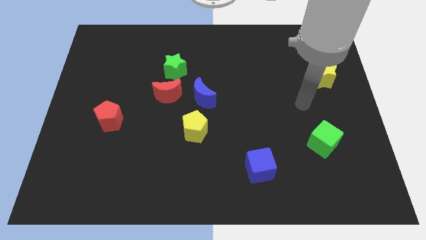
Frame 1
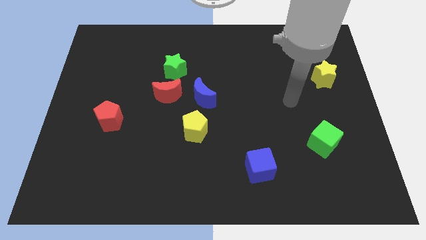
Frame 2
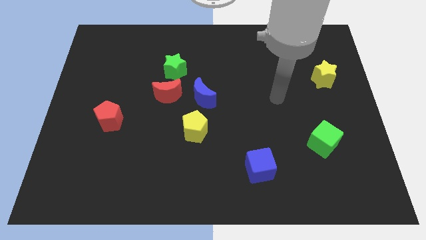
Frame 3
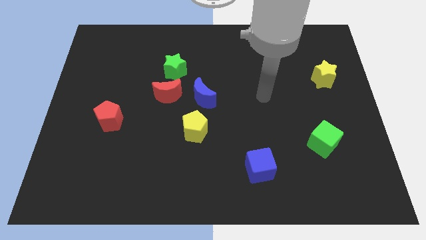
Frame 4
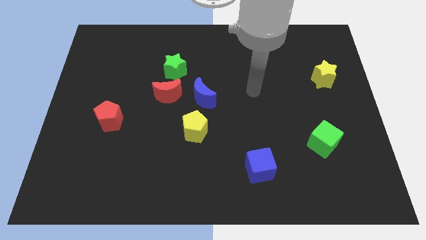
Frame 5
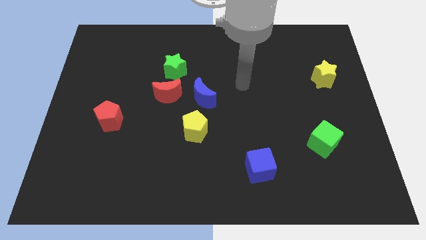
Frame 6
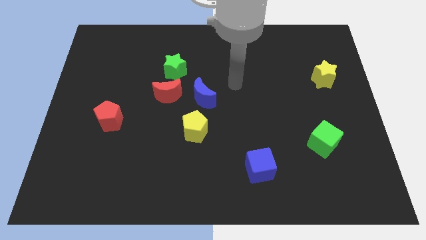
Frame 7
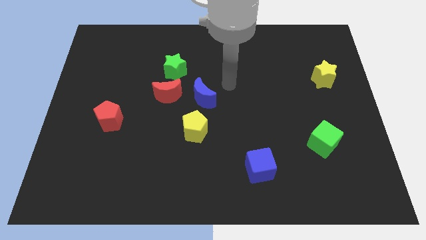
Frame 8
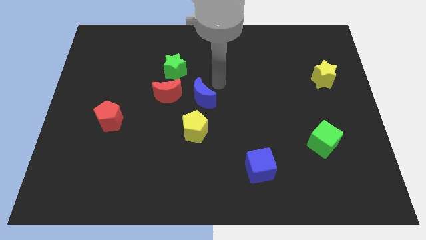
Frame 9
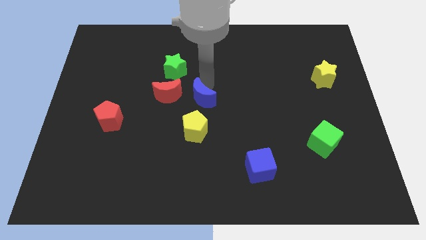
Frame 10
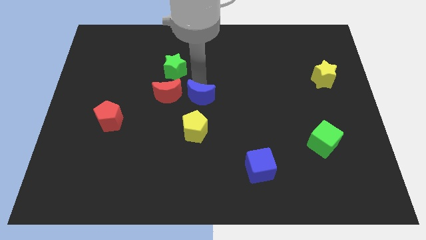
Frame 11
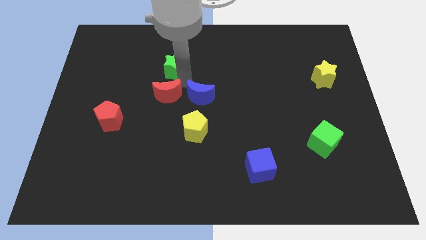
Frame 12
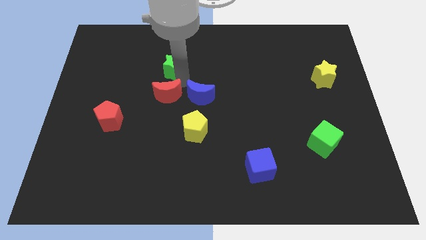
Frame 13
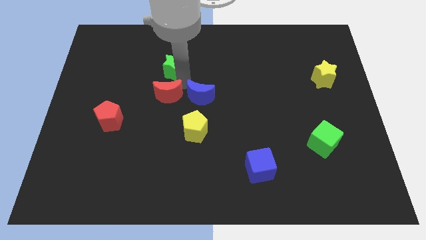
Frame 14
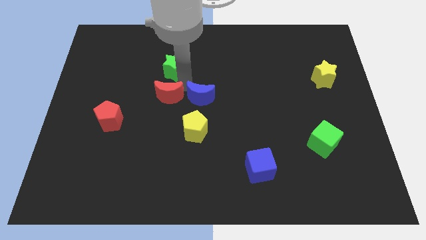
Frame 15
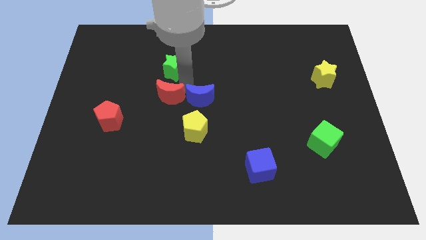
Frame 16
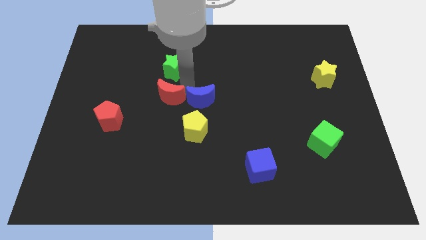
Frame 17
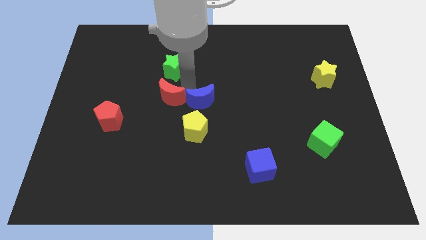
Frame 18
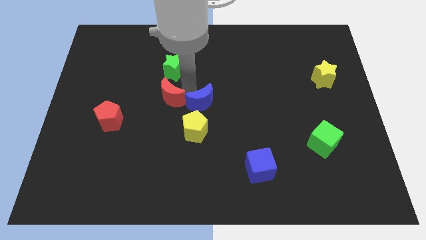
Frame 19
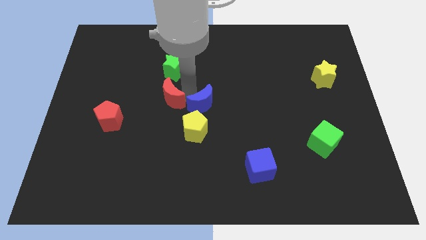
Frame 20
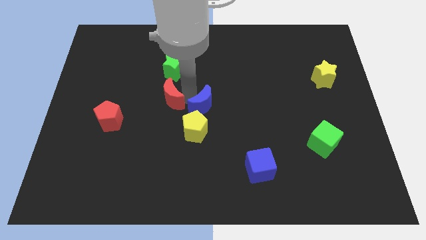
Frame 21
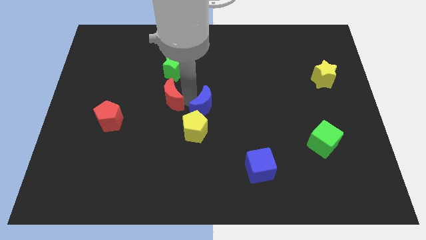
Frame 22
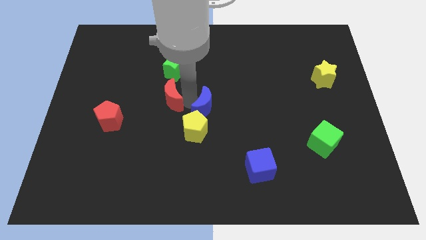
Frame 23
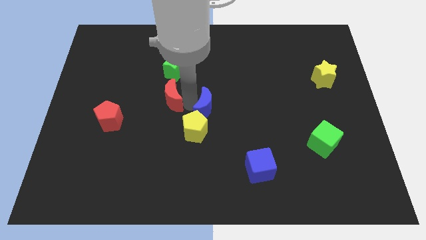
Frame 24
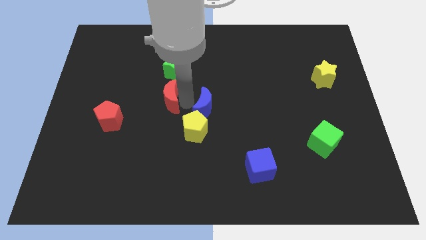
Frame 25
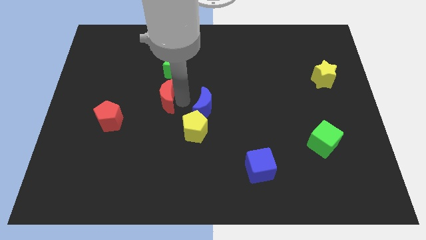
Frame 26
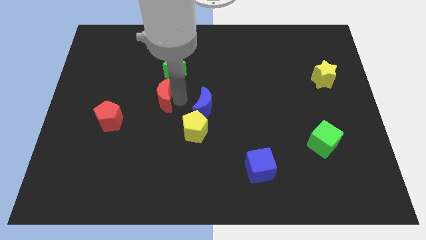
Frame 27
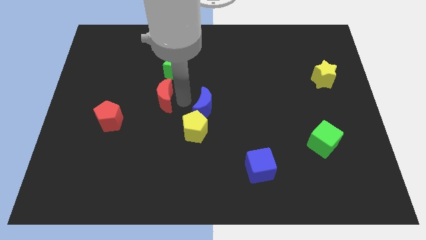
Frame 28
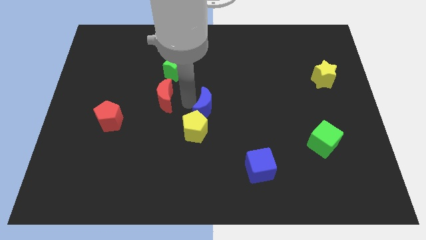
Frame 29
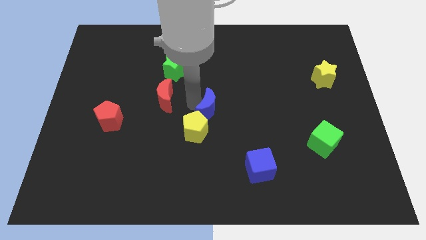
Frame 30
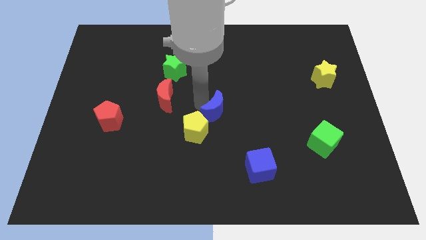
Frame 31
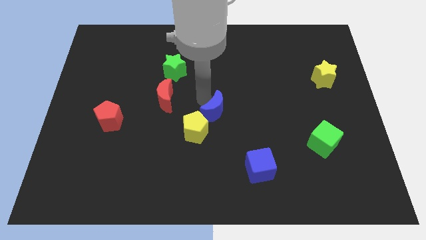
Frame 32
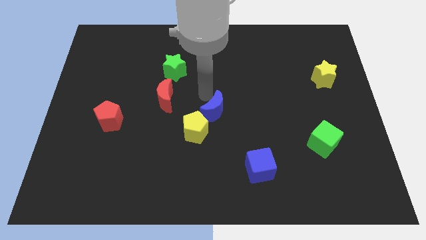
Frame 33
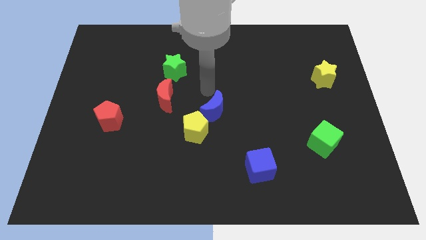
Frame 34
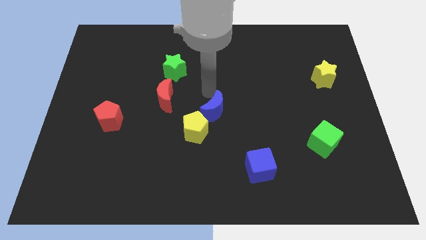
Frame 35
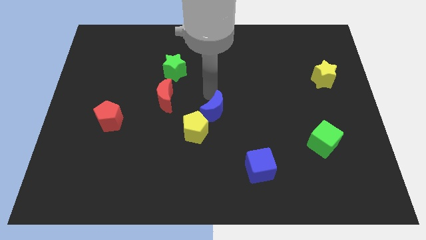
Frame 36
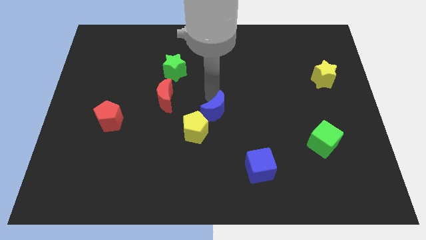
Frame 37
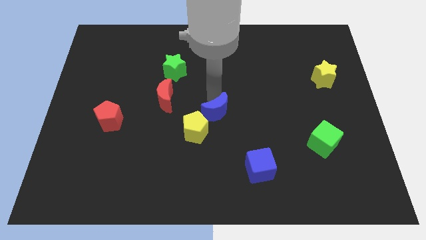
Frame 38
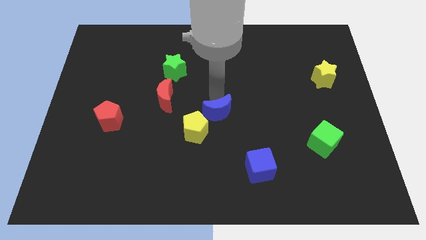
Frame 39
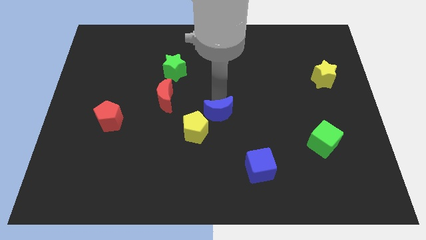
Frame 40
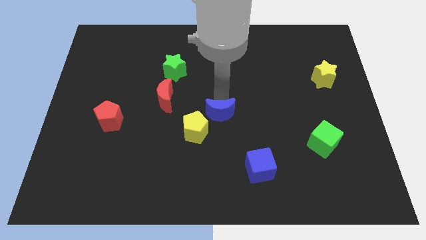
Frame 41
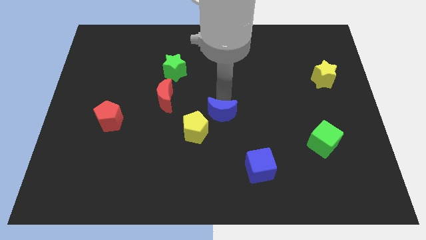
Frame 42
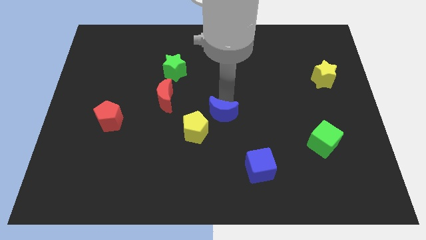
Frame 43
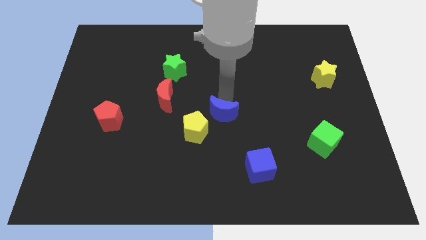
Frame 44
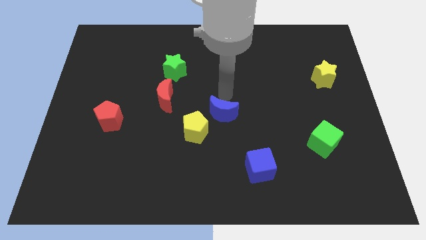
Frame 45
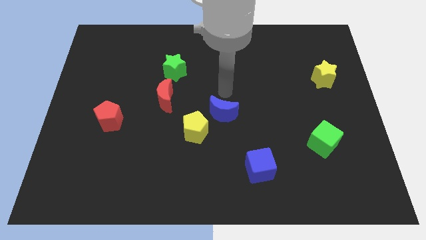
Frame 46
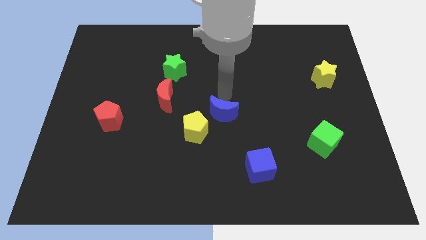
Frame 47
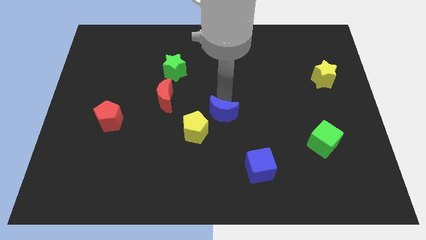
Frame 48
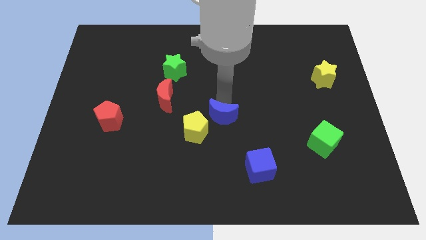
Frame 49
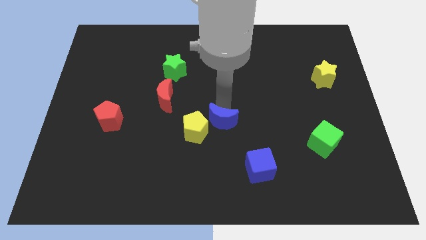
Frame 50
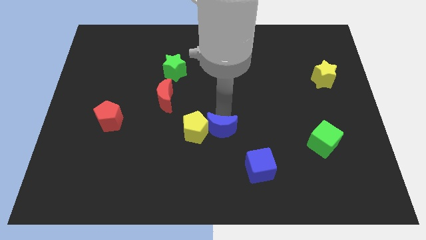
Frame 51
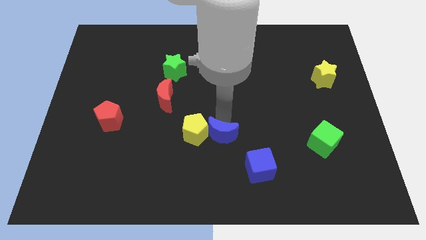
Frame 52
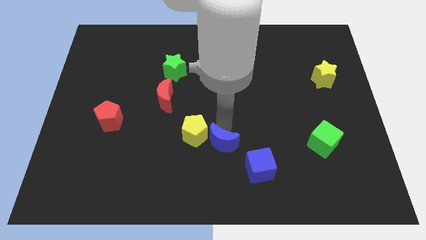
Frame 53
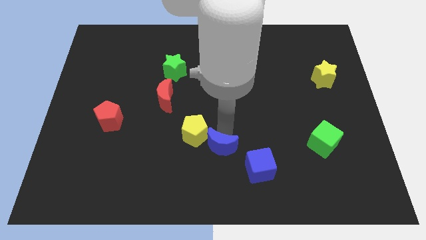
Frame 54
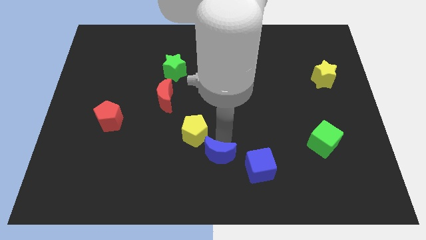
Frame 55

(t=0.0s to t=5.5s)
push the blue moon left of the blue cube
